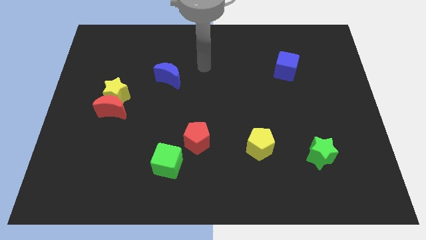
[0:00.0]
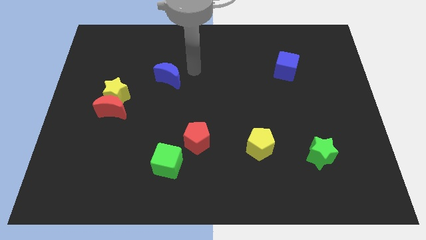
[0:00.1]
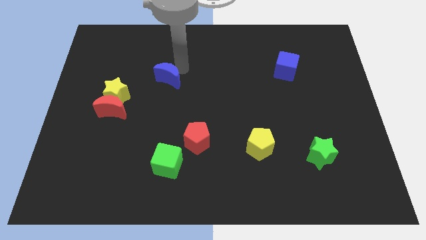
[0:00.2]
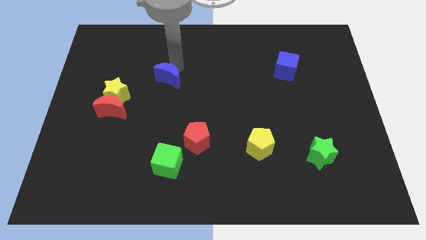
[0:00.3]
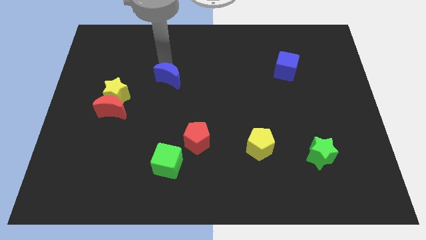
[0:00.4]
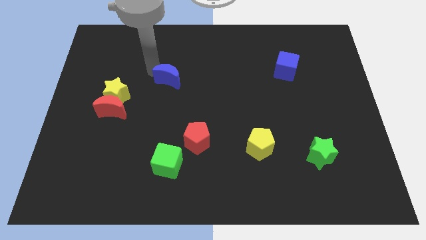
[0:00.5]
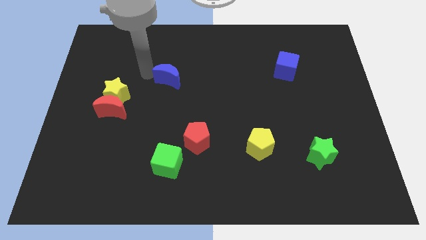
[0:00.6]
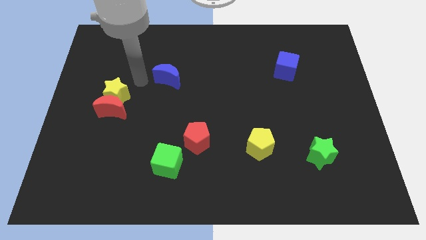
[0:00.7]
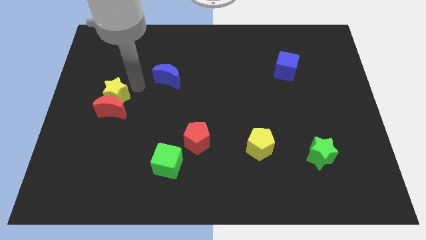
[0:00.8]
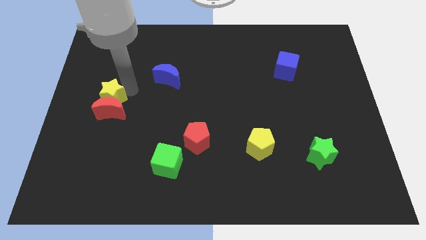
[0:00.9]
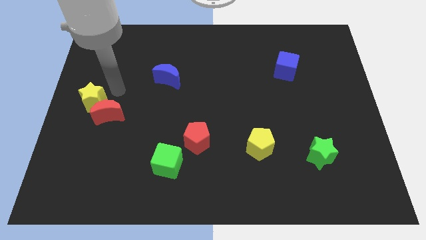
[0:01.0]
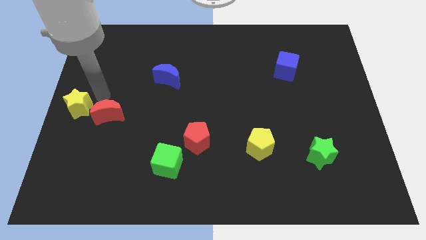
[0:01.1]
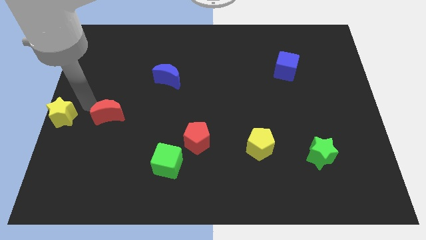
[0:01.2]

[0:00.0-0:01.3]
separate the red moon from the yellow star

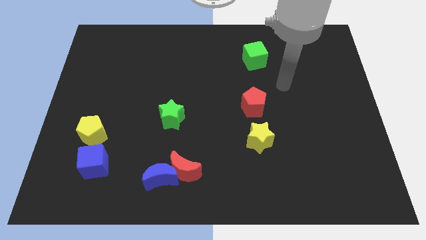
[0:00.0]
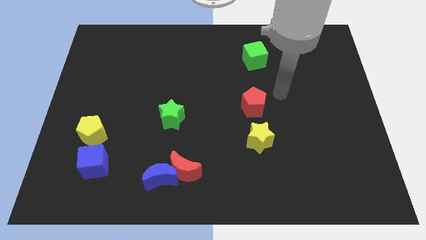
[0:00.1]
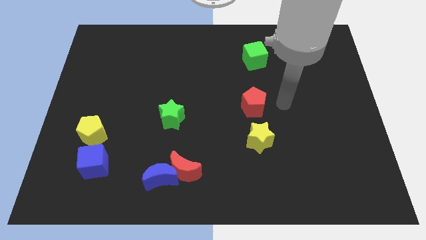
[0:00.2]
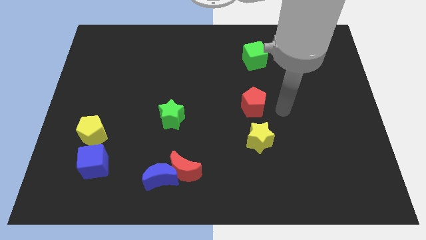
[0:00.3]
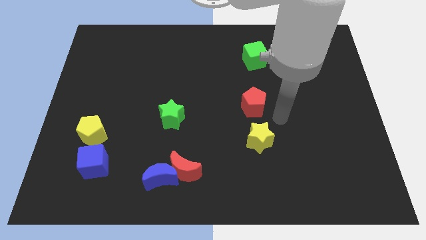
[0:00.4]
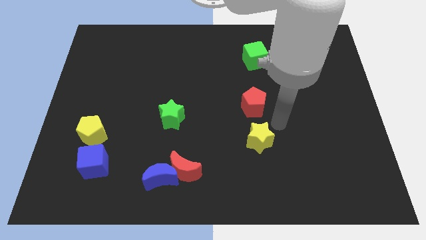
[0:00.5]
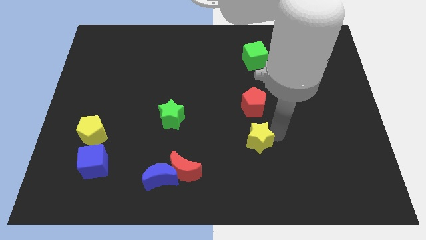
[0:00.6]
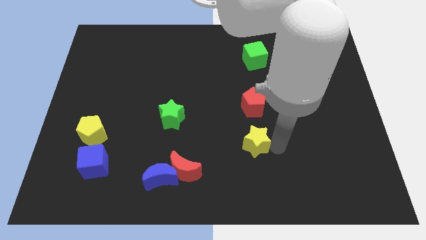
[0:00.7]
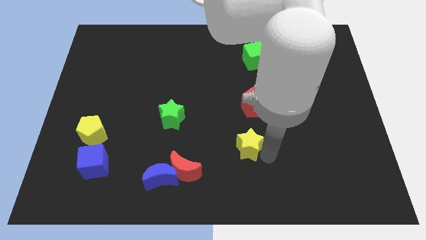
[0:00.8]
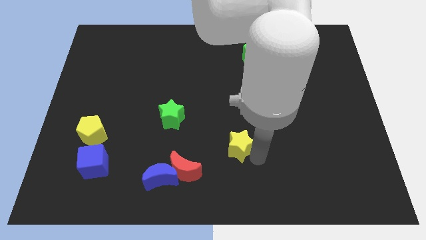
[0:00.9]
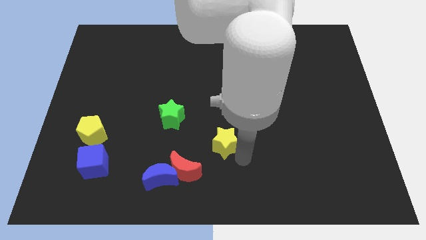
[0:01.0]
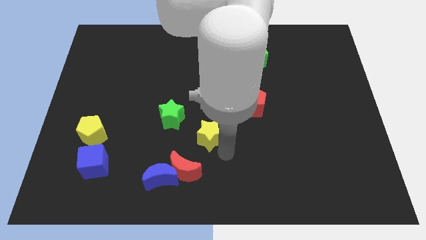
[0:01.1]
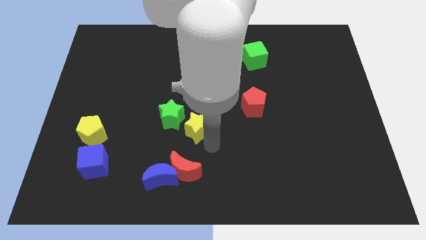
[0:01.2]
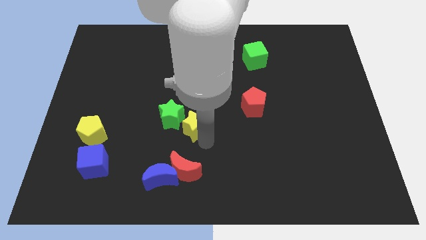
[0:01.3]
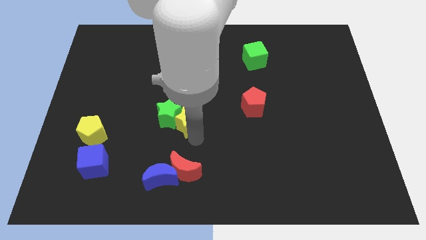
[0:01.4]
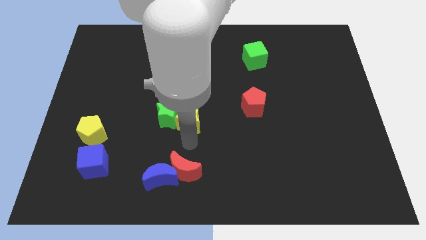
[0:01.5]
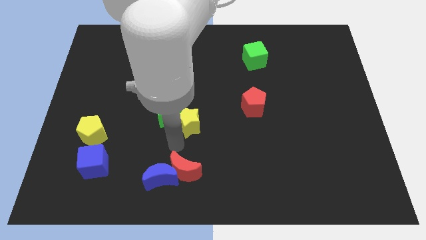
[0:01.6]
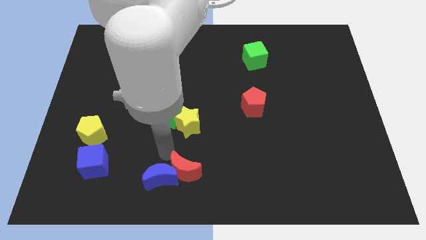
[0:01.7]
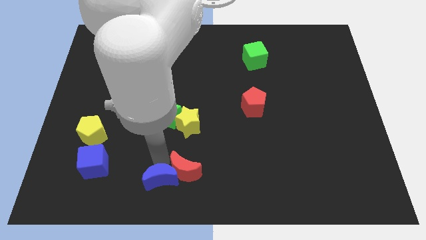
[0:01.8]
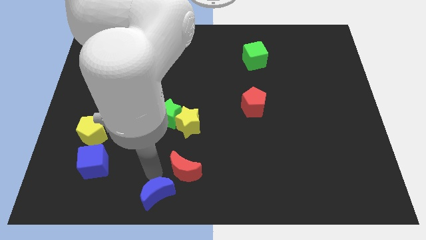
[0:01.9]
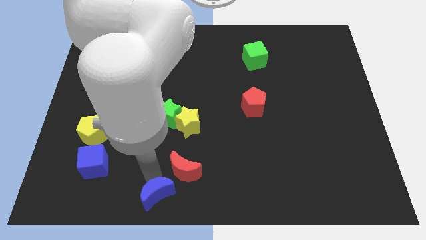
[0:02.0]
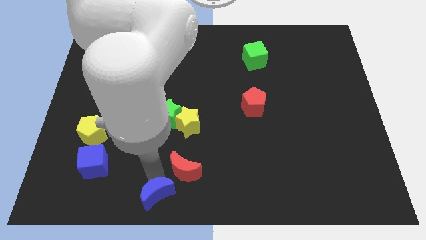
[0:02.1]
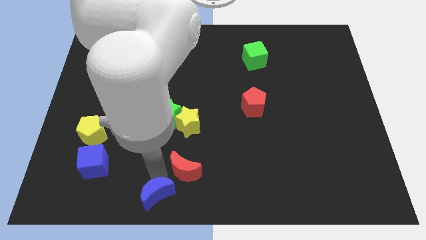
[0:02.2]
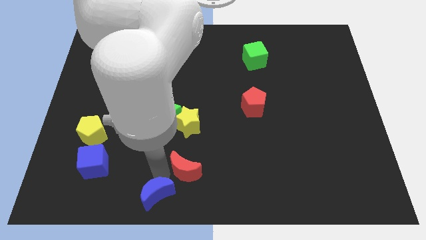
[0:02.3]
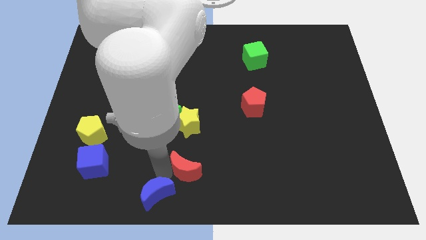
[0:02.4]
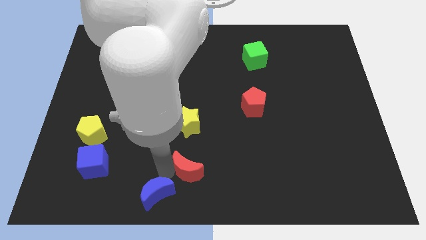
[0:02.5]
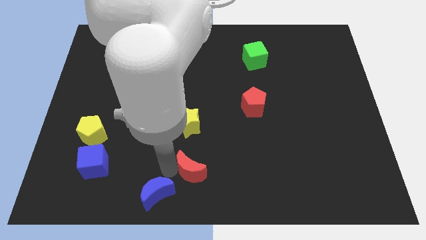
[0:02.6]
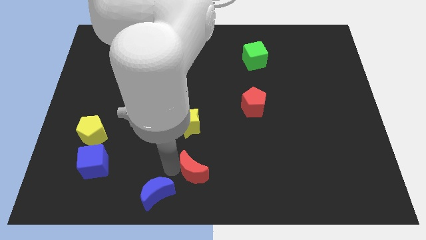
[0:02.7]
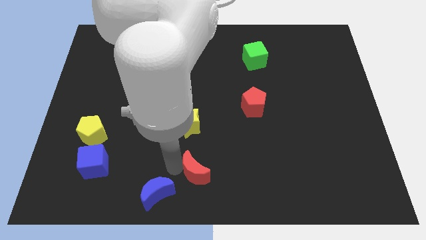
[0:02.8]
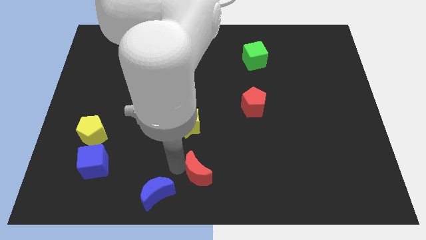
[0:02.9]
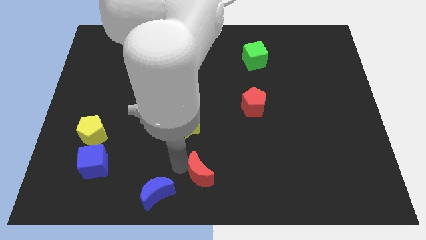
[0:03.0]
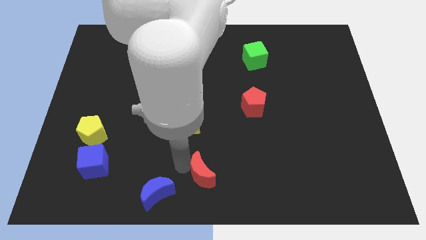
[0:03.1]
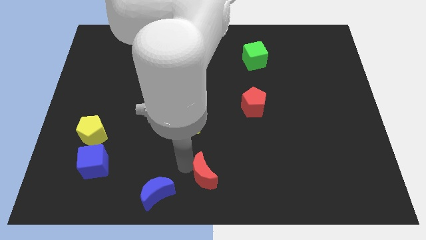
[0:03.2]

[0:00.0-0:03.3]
move the red moon away from the blue moon

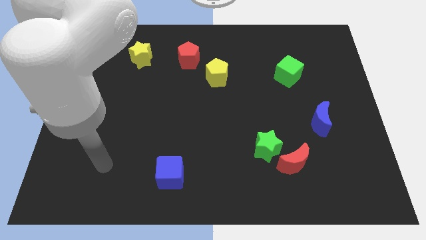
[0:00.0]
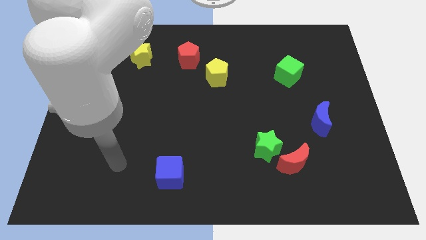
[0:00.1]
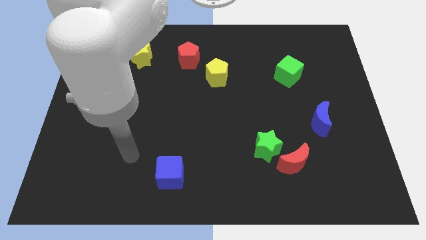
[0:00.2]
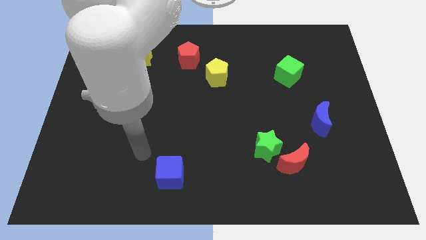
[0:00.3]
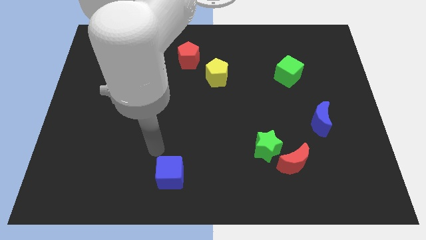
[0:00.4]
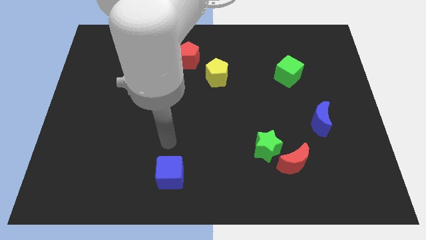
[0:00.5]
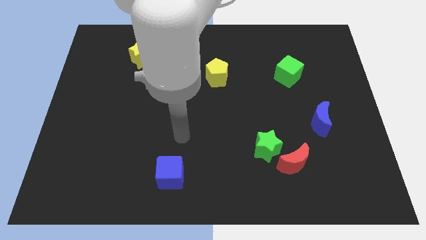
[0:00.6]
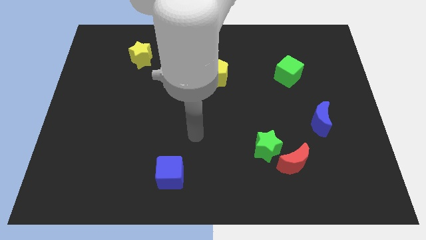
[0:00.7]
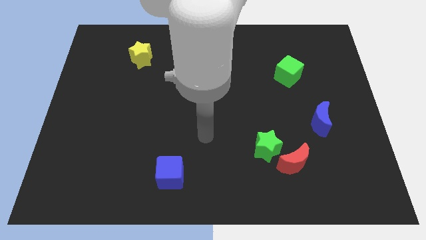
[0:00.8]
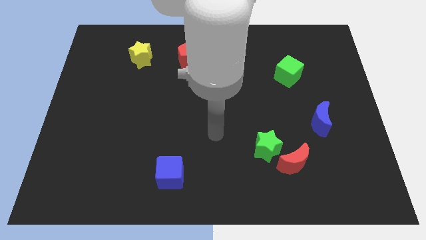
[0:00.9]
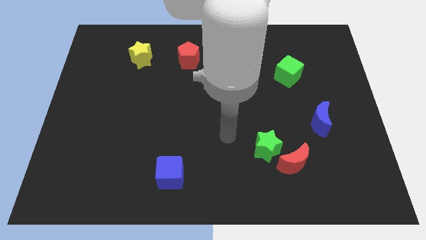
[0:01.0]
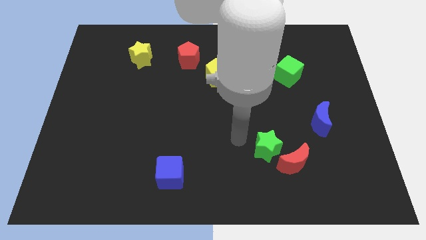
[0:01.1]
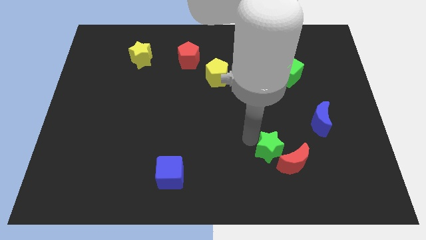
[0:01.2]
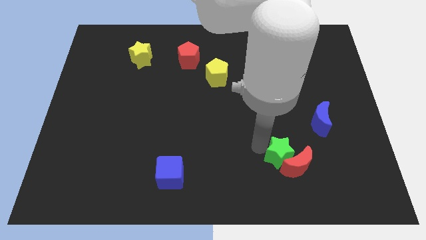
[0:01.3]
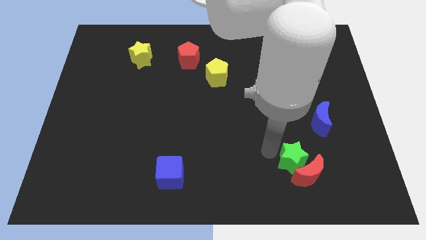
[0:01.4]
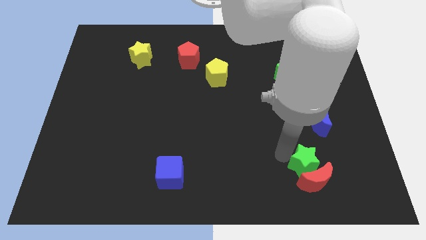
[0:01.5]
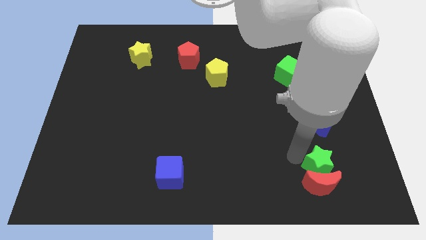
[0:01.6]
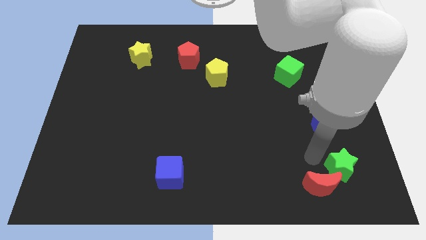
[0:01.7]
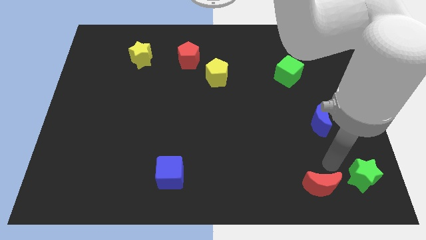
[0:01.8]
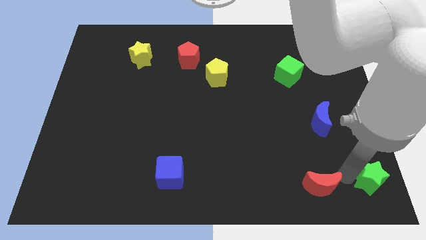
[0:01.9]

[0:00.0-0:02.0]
pull the red moon apart from the green star

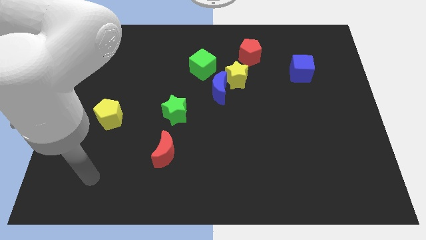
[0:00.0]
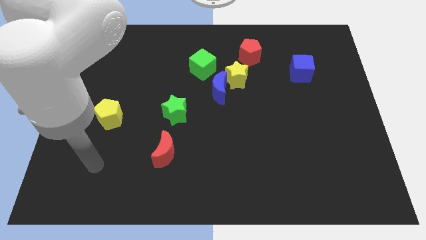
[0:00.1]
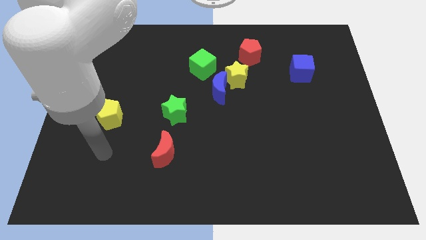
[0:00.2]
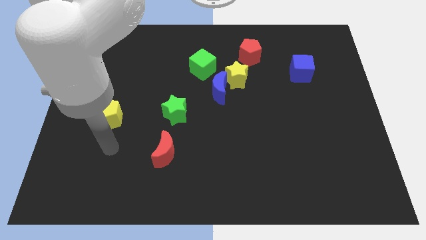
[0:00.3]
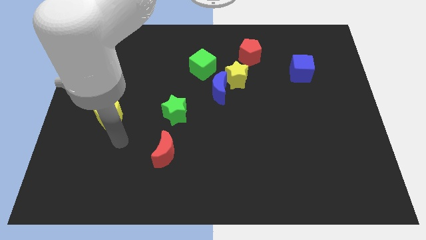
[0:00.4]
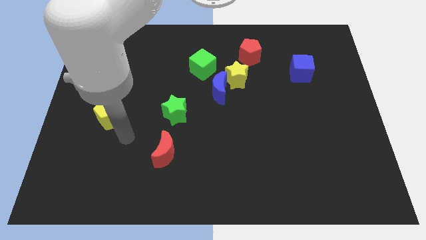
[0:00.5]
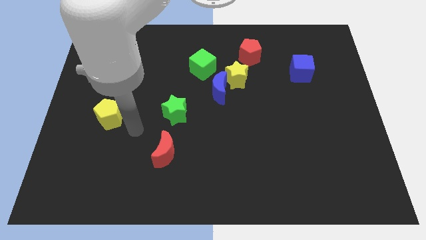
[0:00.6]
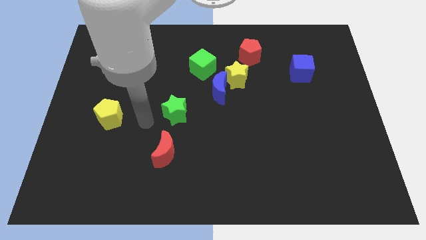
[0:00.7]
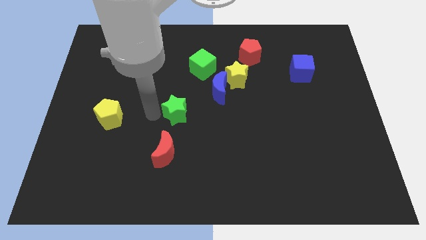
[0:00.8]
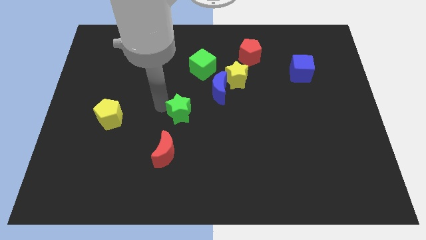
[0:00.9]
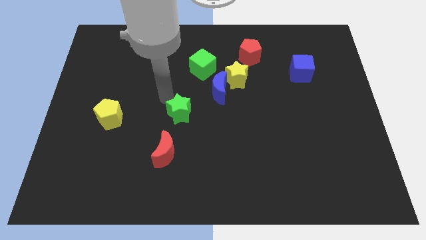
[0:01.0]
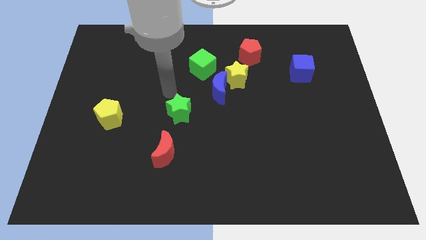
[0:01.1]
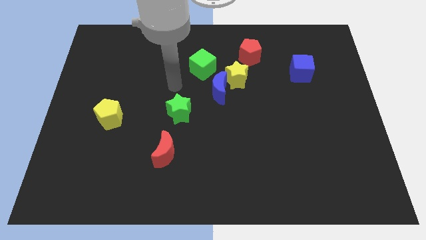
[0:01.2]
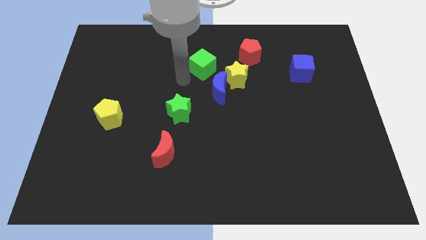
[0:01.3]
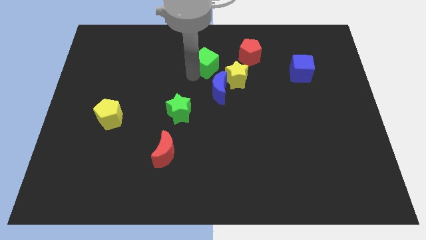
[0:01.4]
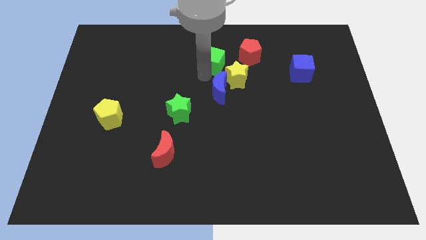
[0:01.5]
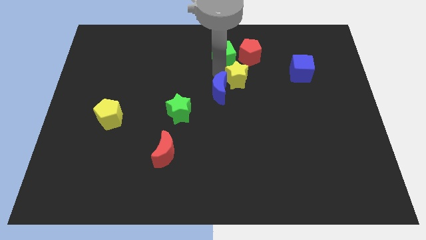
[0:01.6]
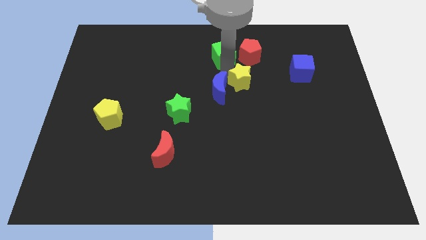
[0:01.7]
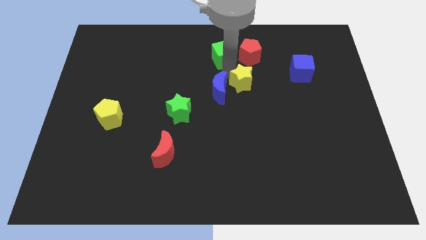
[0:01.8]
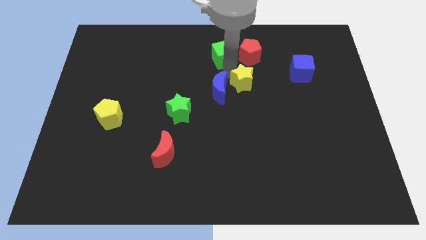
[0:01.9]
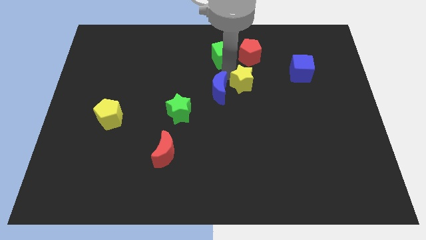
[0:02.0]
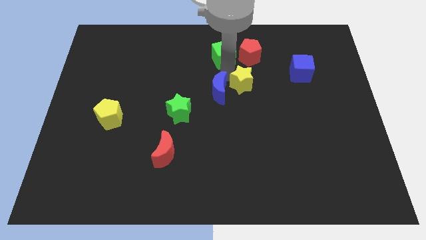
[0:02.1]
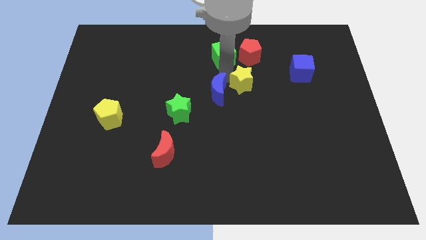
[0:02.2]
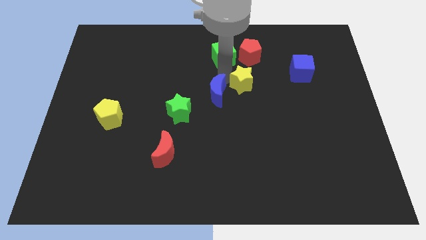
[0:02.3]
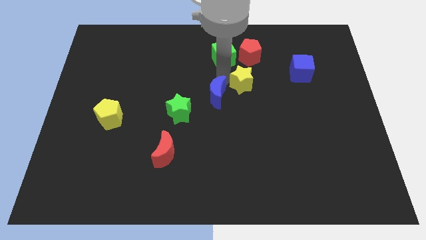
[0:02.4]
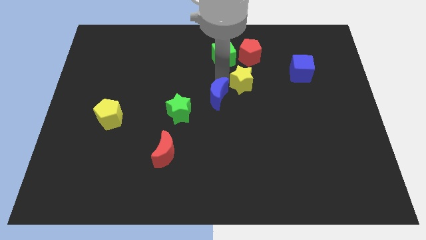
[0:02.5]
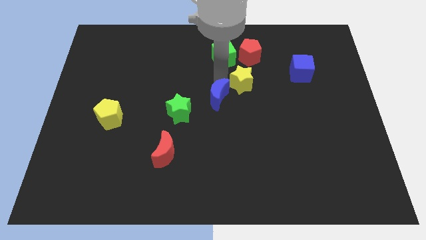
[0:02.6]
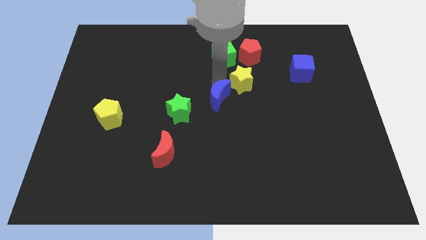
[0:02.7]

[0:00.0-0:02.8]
pull the blue moon apart from the yellow star and green cube

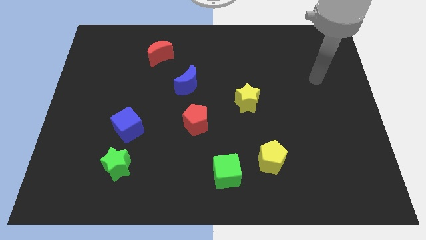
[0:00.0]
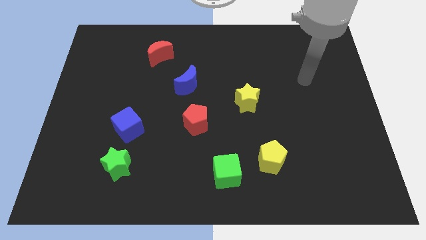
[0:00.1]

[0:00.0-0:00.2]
pull the blue cube apart from the green star
